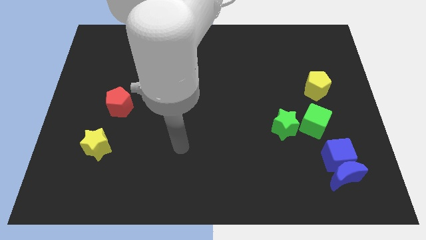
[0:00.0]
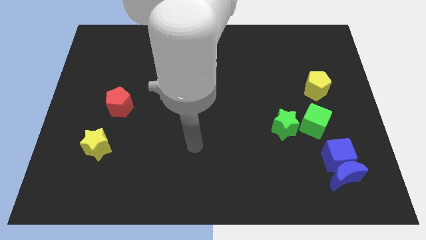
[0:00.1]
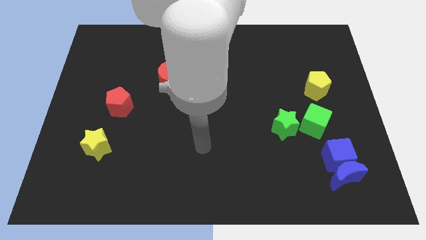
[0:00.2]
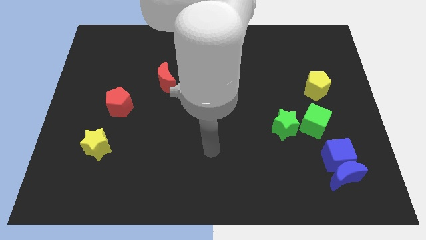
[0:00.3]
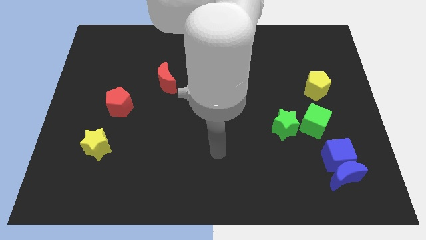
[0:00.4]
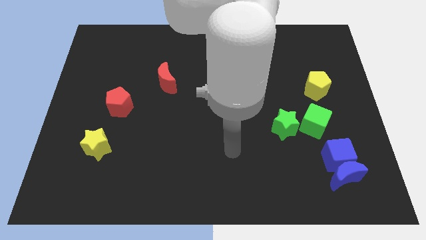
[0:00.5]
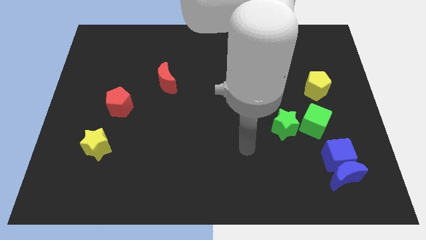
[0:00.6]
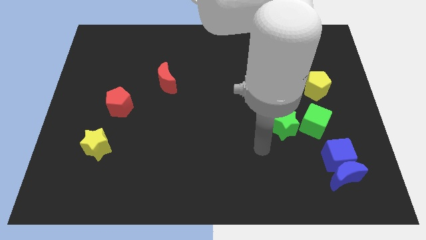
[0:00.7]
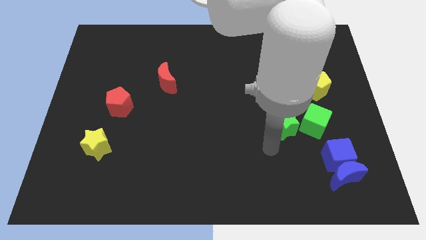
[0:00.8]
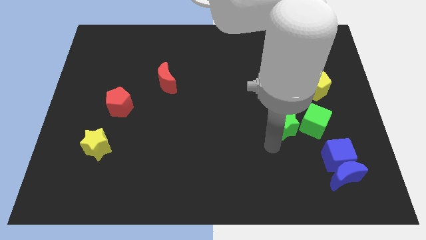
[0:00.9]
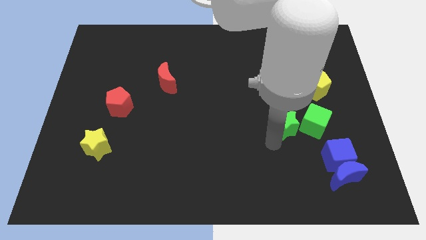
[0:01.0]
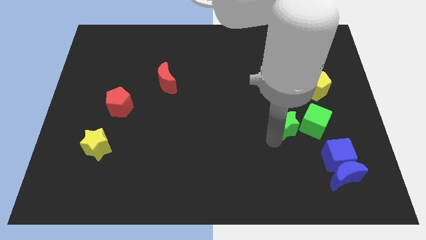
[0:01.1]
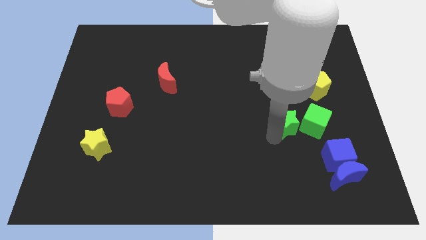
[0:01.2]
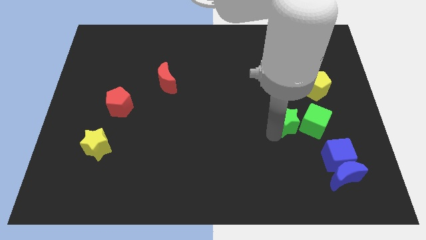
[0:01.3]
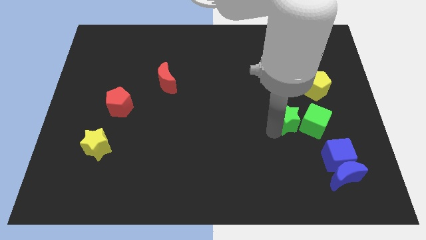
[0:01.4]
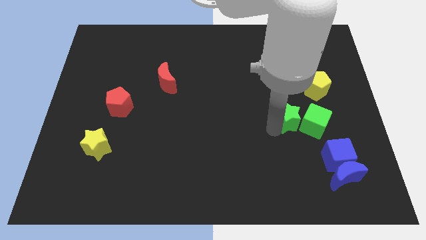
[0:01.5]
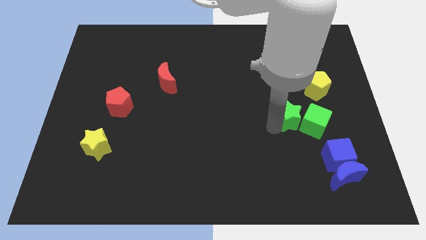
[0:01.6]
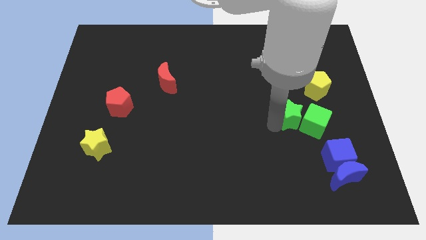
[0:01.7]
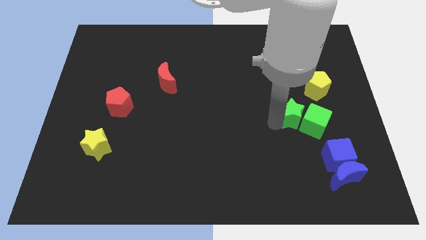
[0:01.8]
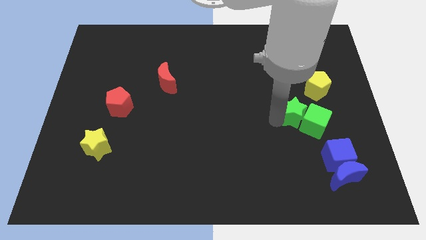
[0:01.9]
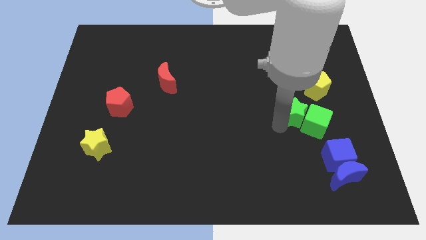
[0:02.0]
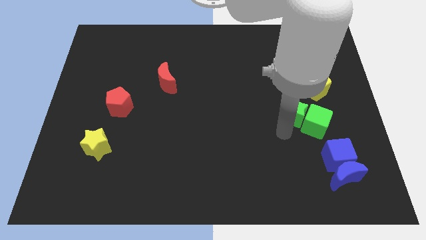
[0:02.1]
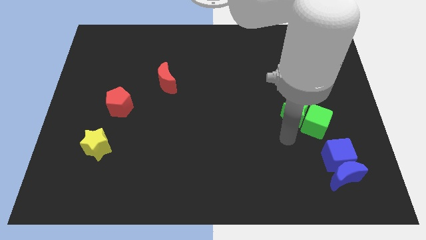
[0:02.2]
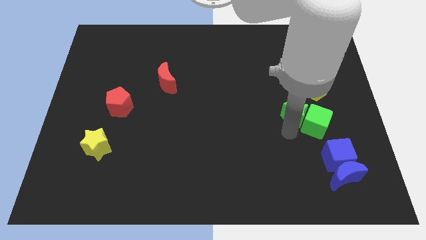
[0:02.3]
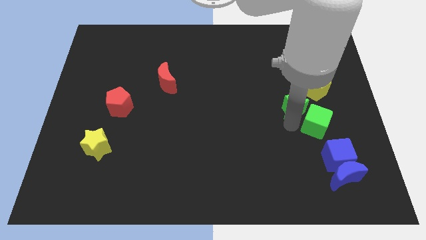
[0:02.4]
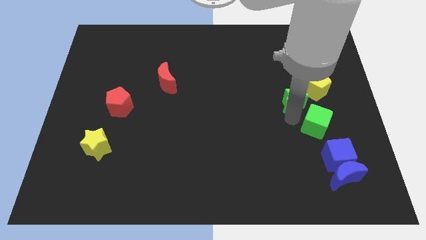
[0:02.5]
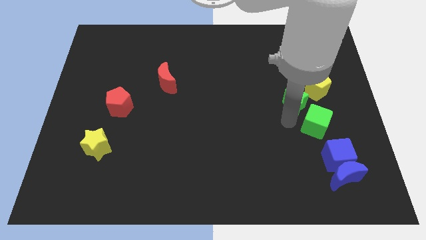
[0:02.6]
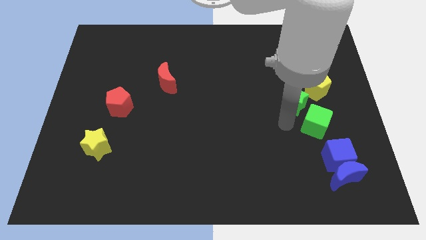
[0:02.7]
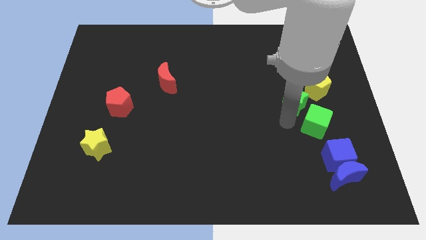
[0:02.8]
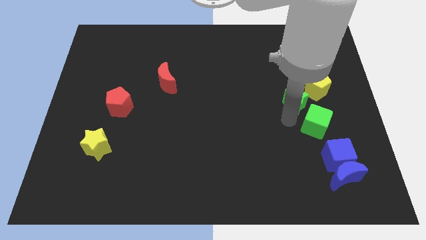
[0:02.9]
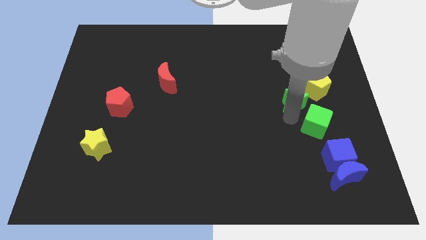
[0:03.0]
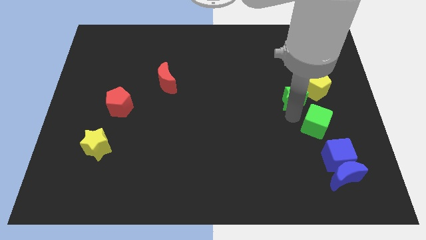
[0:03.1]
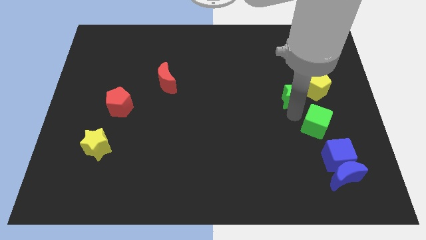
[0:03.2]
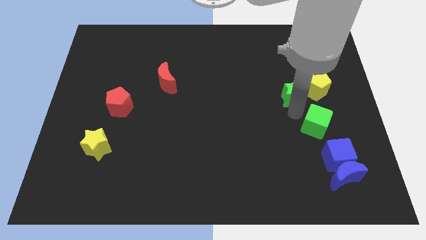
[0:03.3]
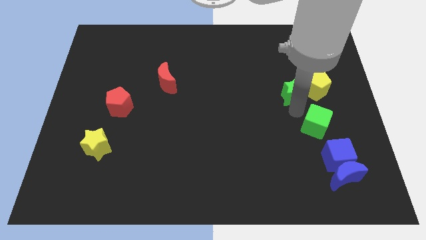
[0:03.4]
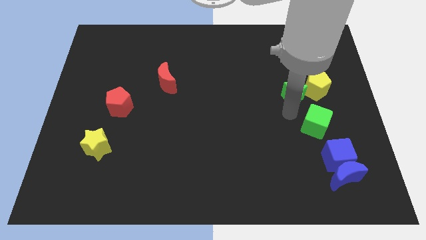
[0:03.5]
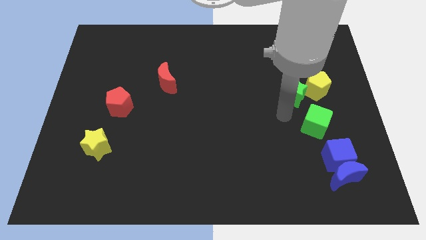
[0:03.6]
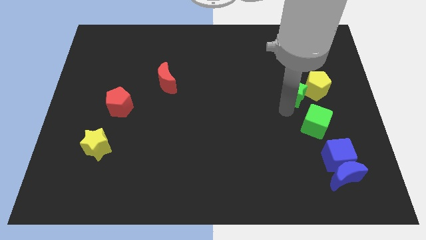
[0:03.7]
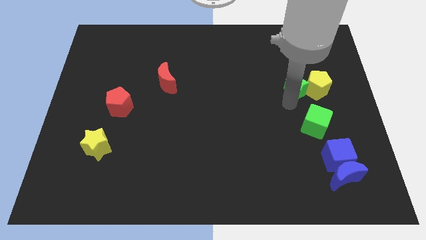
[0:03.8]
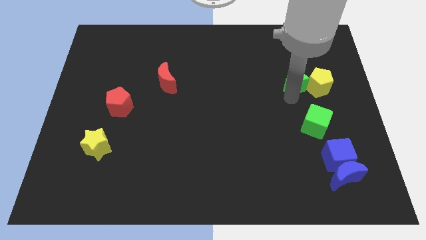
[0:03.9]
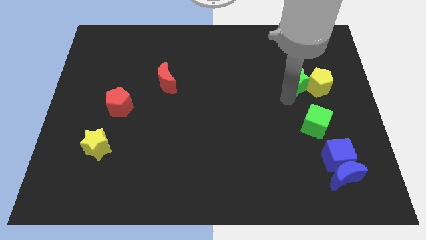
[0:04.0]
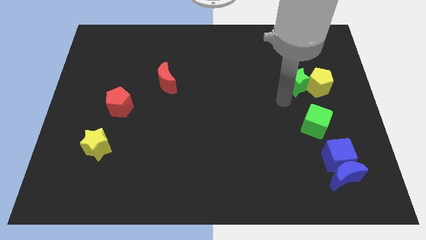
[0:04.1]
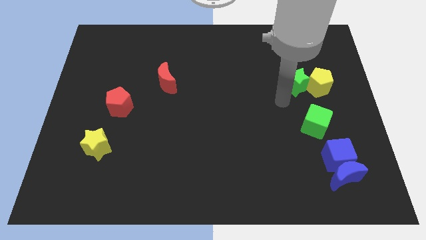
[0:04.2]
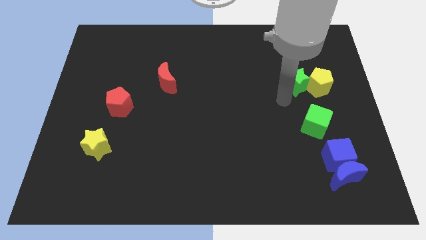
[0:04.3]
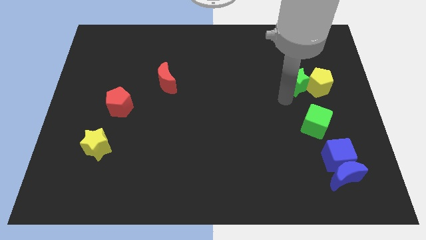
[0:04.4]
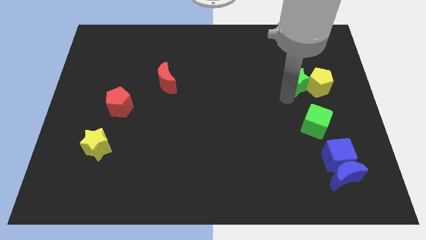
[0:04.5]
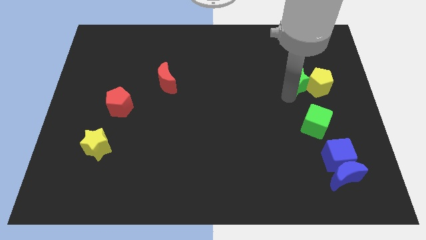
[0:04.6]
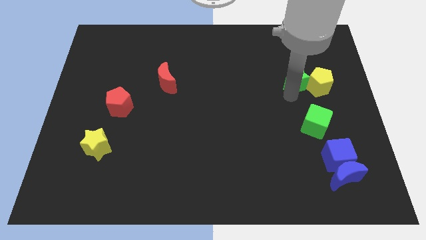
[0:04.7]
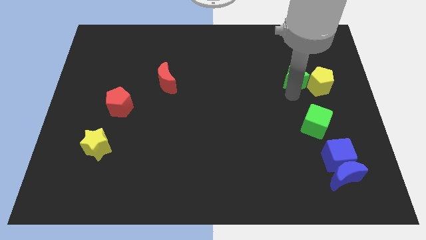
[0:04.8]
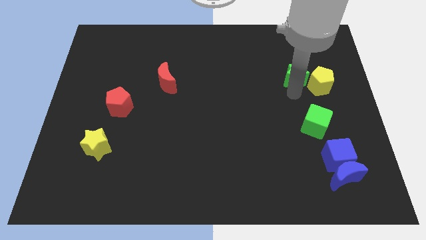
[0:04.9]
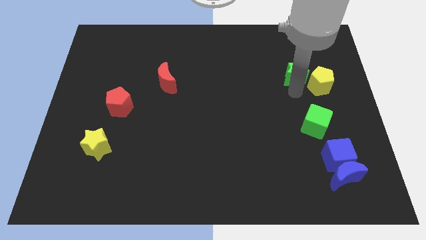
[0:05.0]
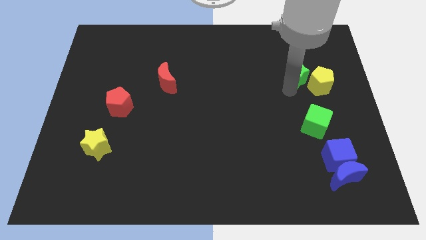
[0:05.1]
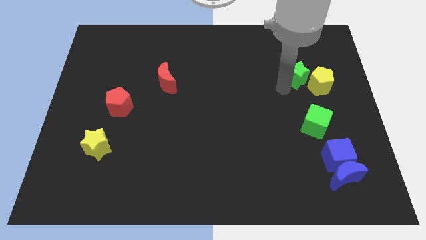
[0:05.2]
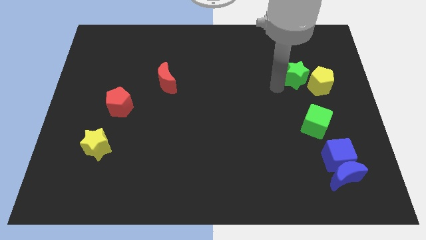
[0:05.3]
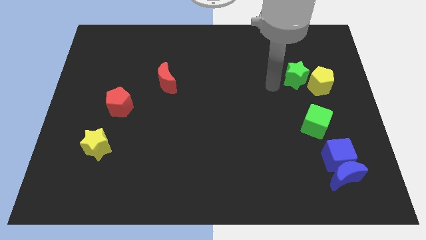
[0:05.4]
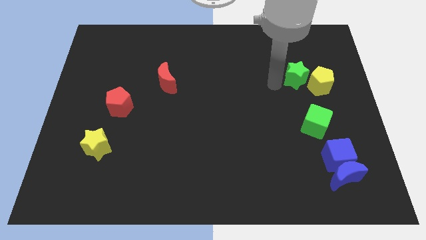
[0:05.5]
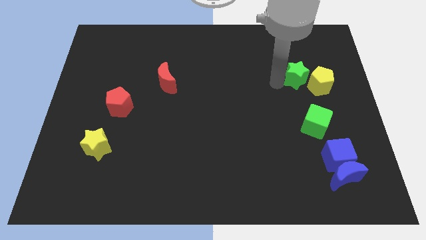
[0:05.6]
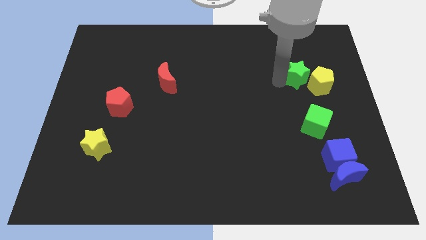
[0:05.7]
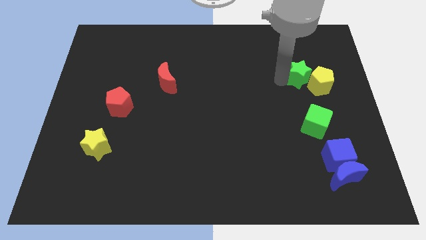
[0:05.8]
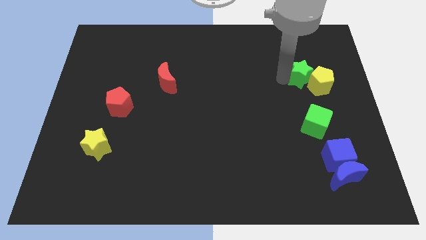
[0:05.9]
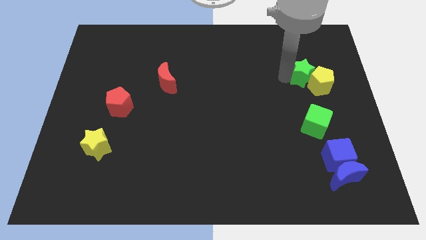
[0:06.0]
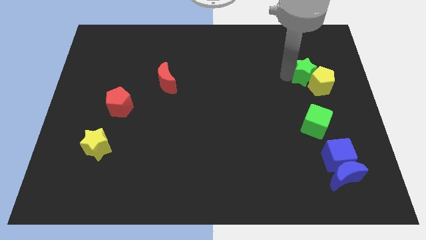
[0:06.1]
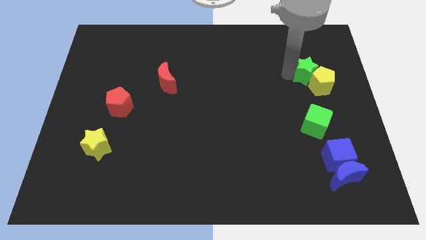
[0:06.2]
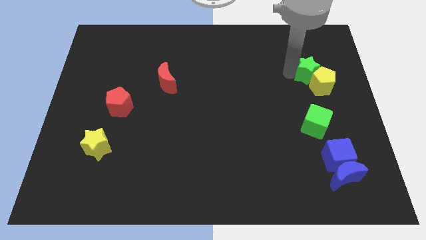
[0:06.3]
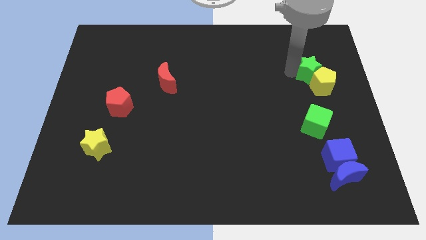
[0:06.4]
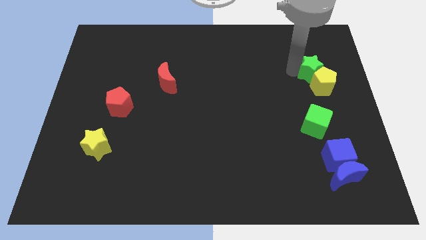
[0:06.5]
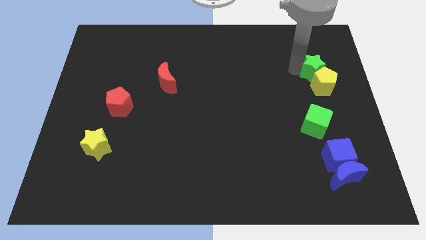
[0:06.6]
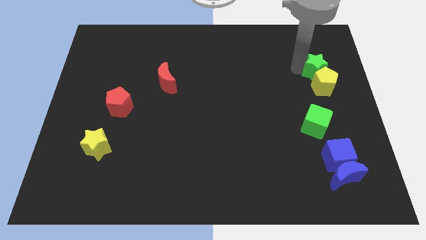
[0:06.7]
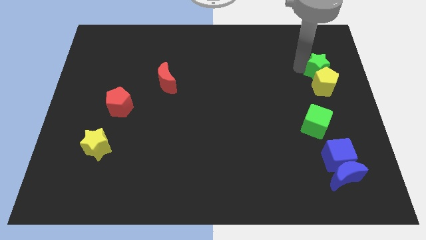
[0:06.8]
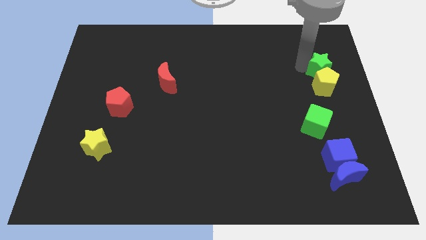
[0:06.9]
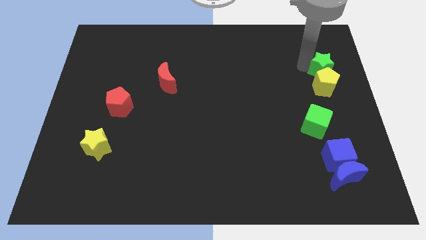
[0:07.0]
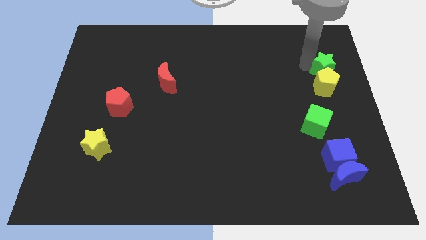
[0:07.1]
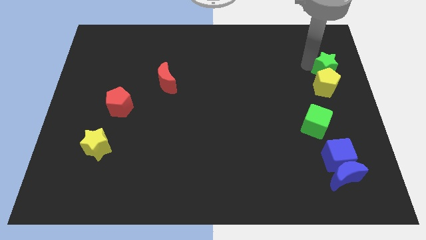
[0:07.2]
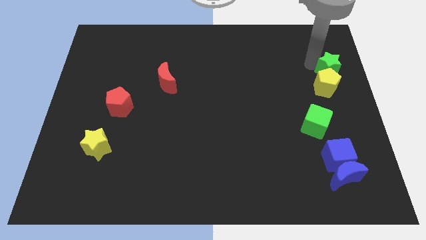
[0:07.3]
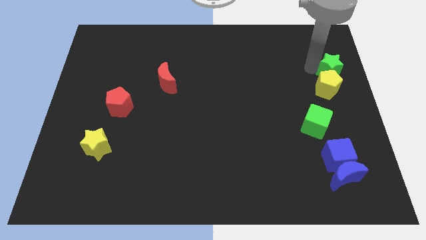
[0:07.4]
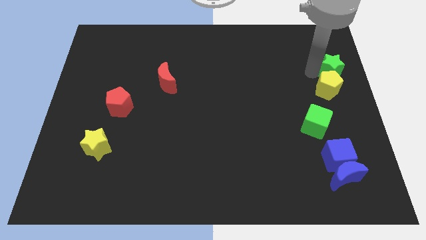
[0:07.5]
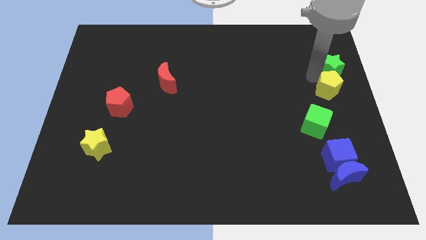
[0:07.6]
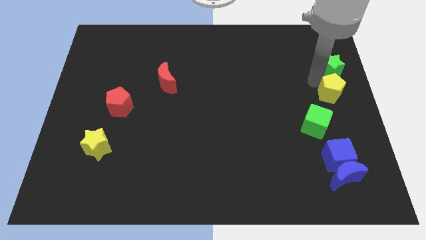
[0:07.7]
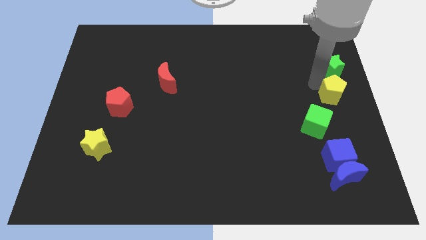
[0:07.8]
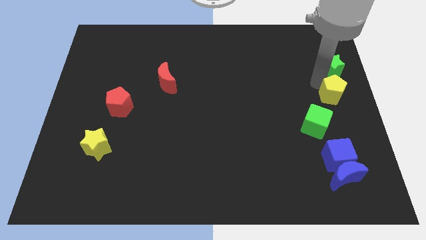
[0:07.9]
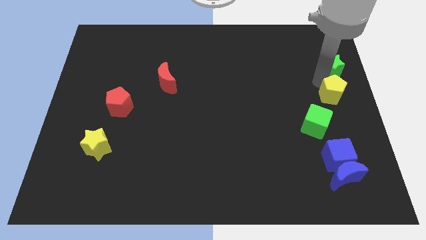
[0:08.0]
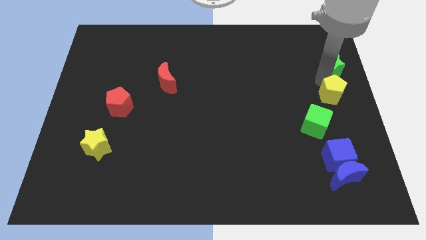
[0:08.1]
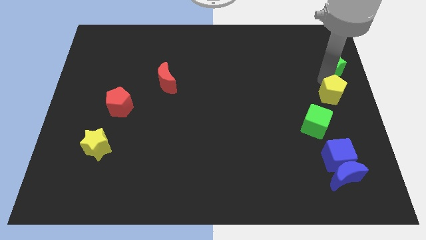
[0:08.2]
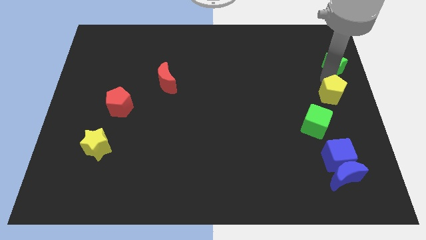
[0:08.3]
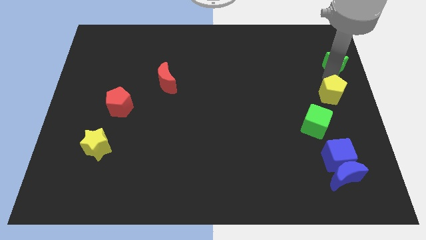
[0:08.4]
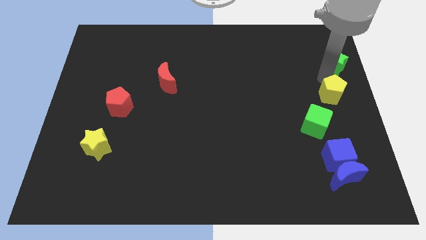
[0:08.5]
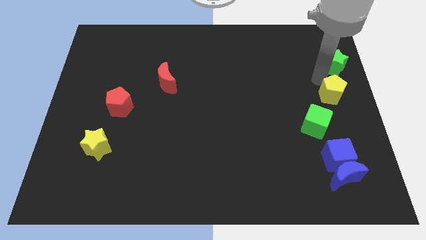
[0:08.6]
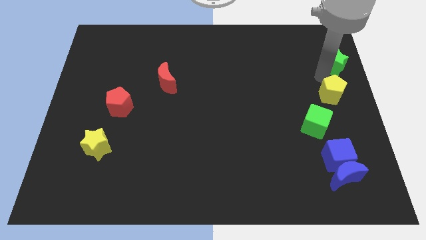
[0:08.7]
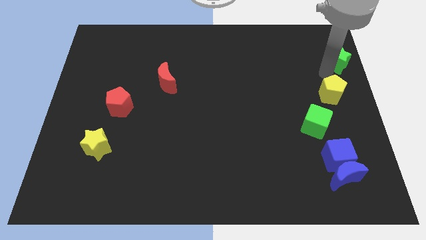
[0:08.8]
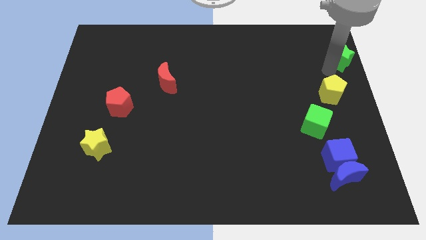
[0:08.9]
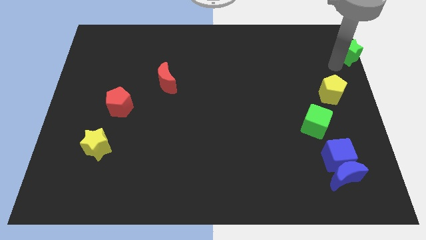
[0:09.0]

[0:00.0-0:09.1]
put the green star to the top right of the board
